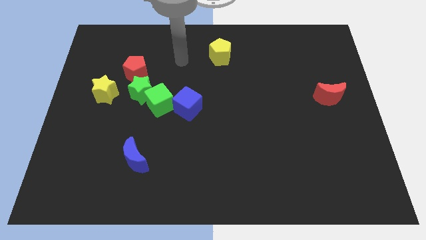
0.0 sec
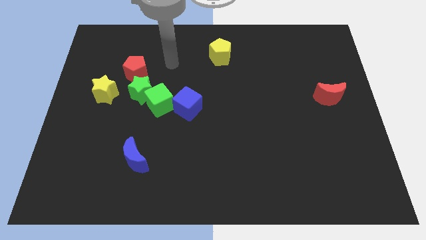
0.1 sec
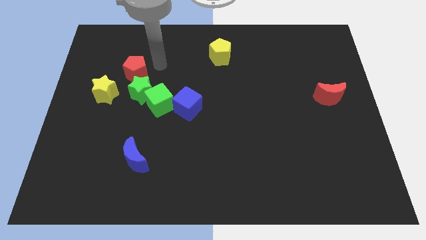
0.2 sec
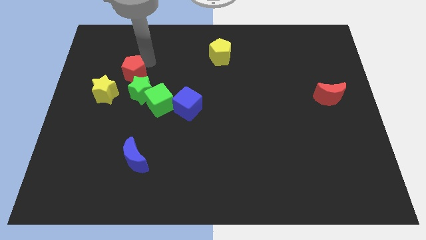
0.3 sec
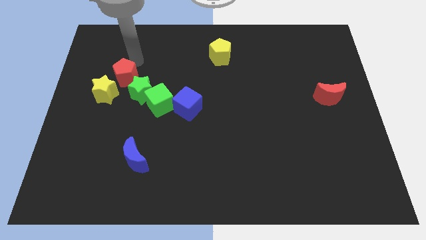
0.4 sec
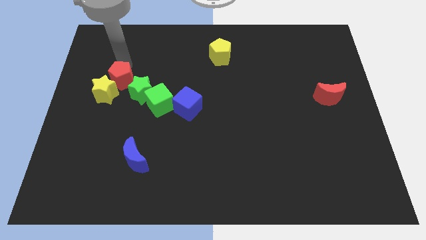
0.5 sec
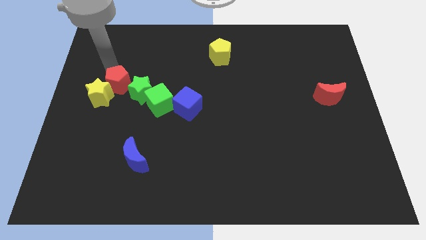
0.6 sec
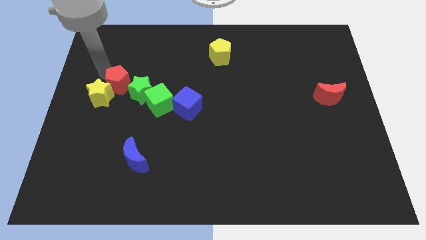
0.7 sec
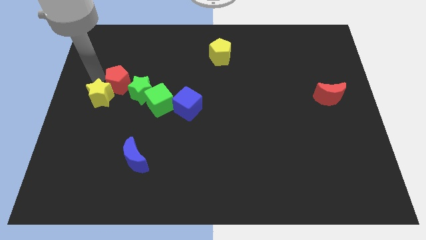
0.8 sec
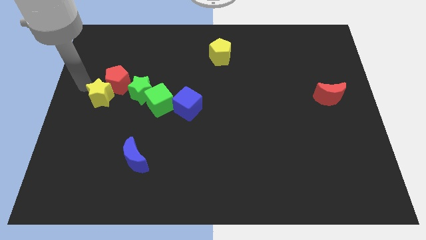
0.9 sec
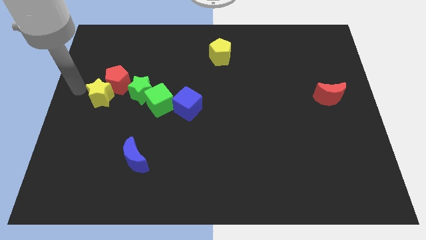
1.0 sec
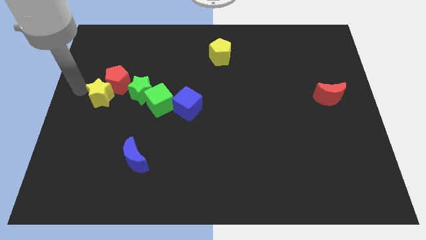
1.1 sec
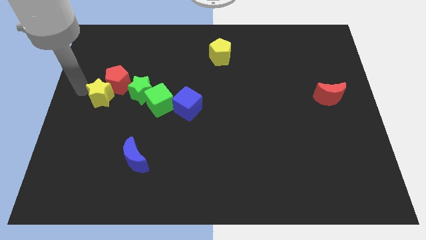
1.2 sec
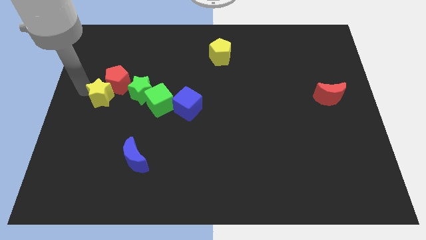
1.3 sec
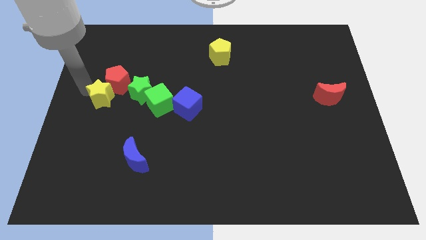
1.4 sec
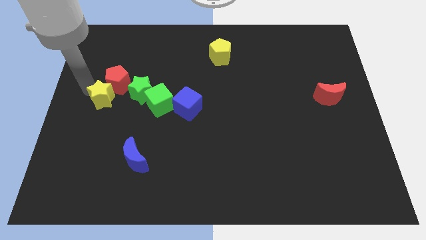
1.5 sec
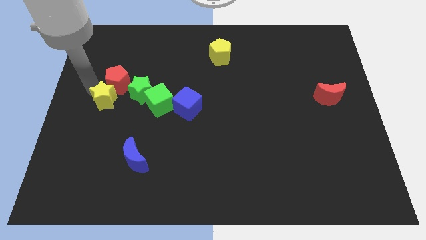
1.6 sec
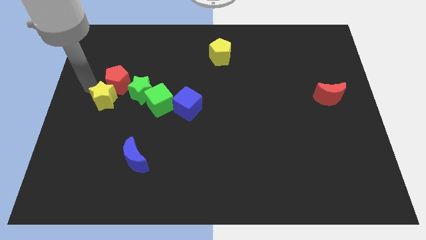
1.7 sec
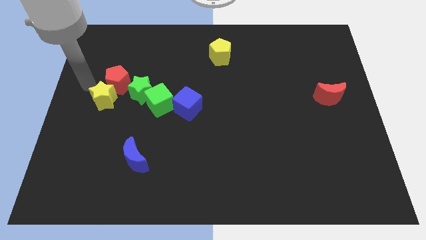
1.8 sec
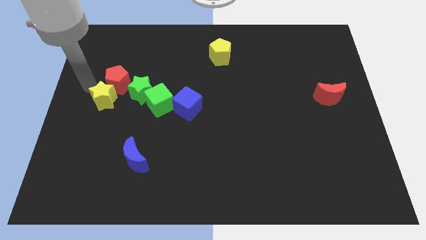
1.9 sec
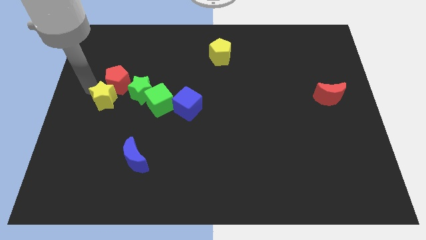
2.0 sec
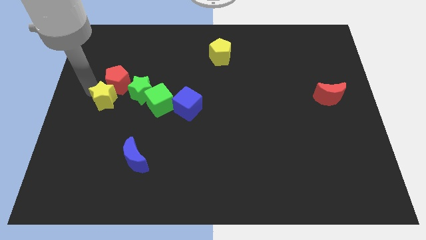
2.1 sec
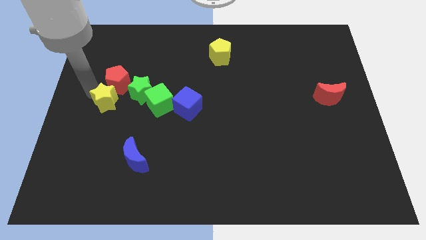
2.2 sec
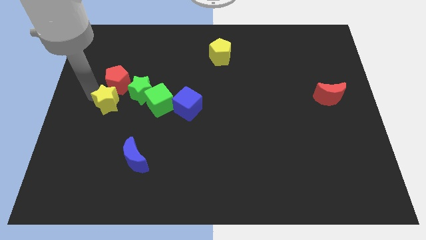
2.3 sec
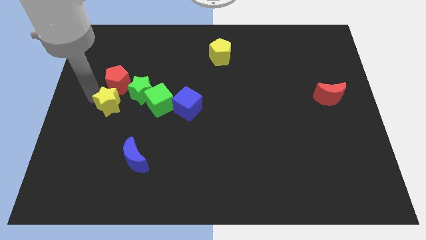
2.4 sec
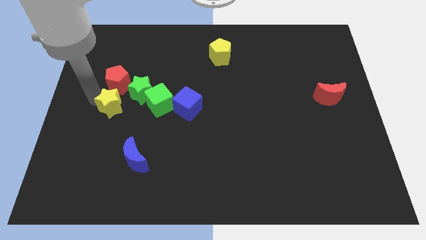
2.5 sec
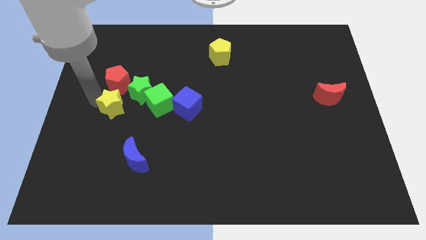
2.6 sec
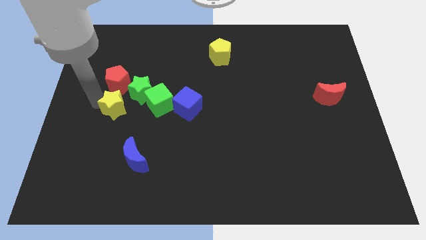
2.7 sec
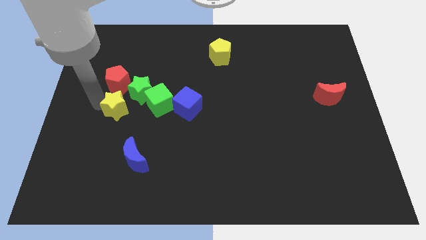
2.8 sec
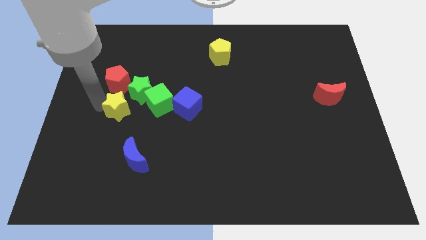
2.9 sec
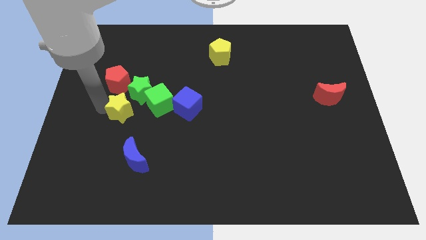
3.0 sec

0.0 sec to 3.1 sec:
push the yellow star downwards and right diagonally somewhat

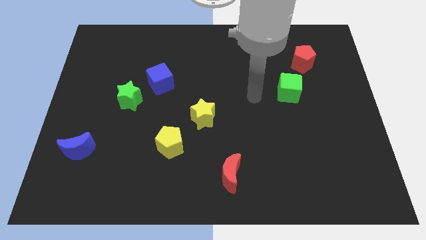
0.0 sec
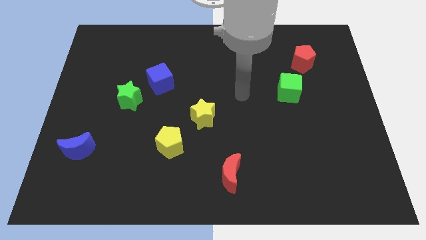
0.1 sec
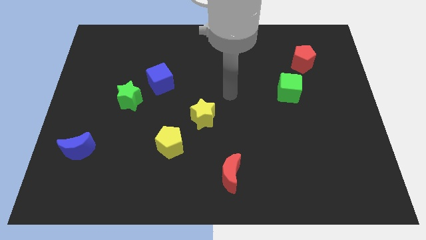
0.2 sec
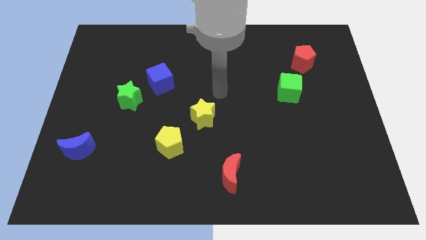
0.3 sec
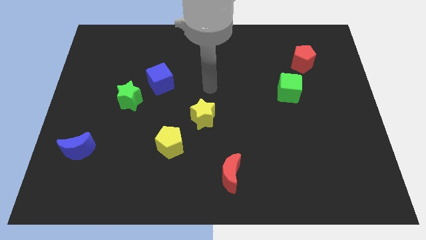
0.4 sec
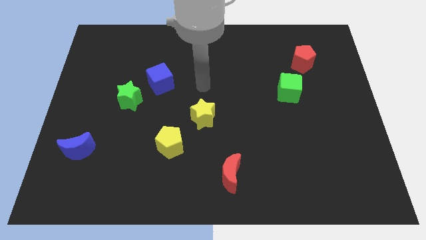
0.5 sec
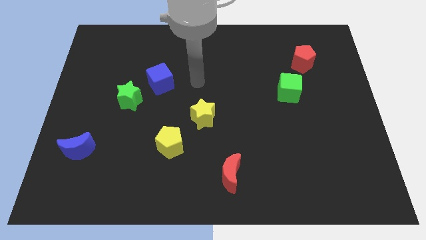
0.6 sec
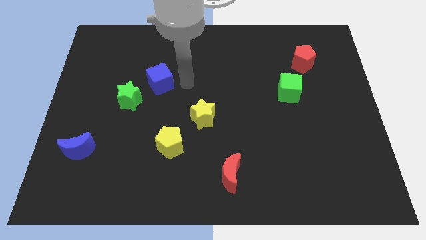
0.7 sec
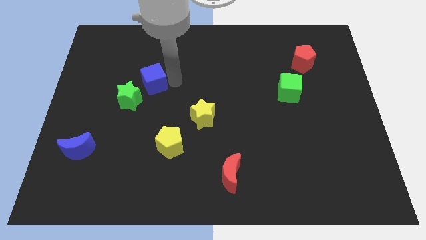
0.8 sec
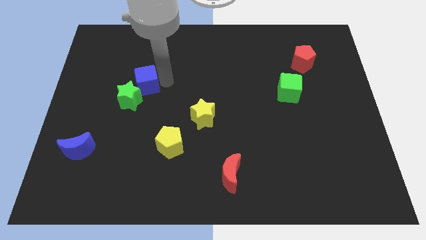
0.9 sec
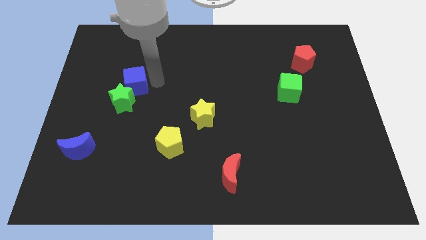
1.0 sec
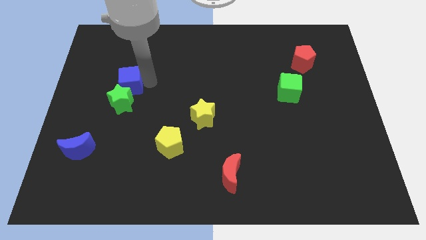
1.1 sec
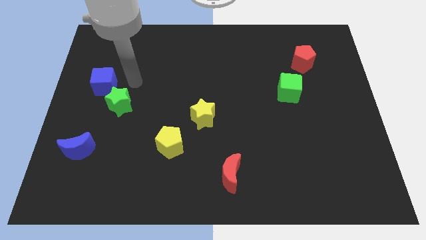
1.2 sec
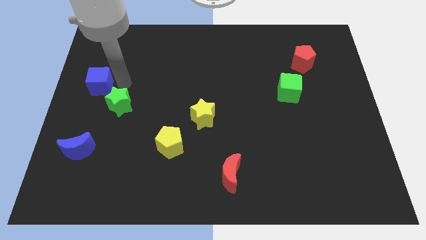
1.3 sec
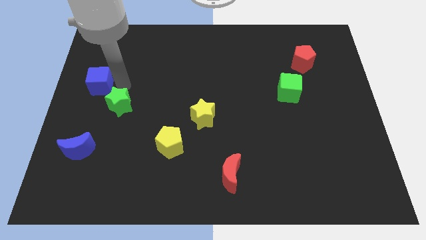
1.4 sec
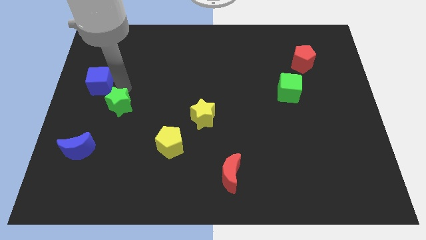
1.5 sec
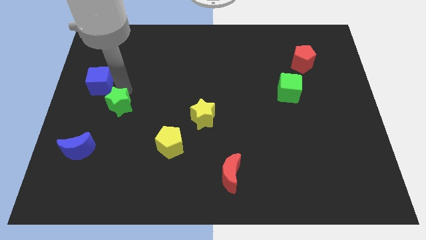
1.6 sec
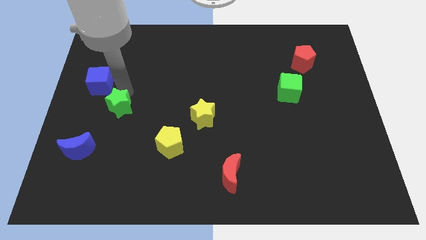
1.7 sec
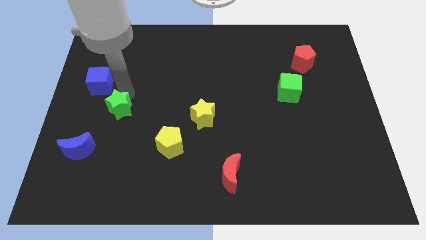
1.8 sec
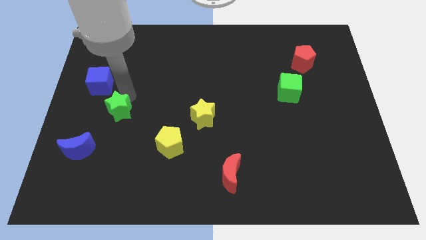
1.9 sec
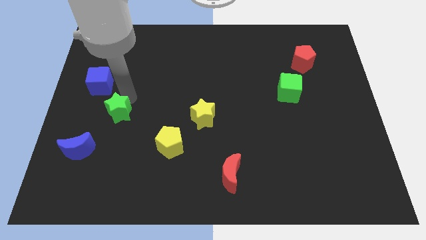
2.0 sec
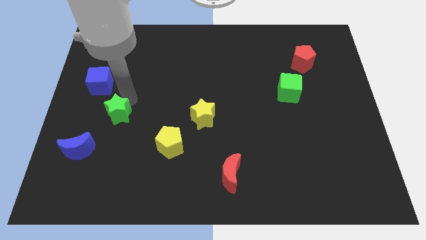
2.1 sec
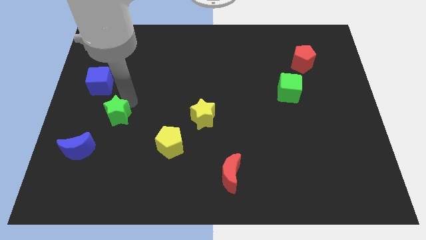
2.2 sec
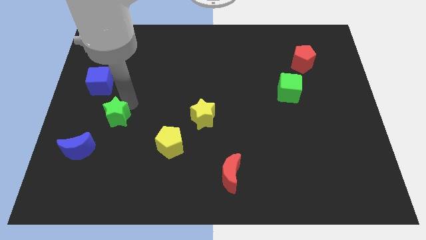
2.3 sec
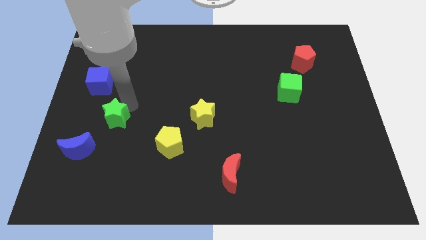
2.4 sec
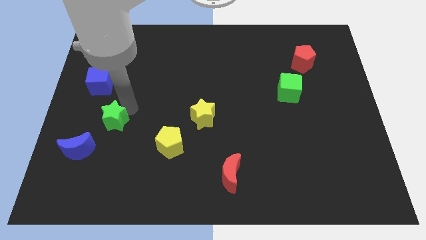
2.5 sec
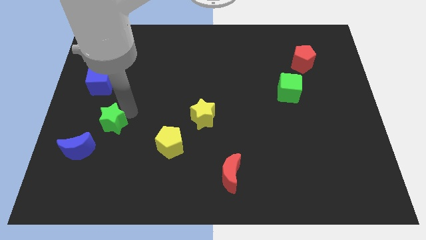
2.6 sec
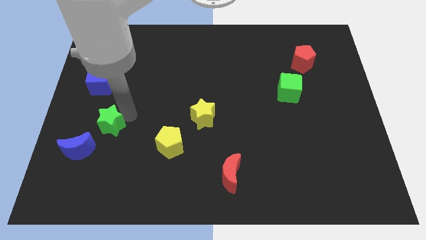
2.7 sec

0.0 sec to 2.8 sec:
push the green star downwards slightly

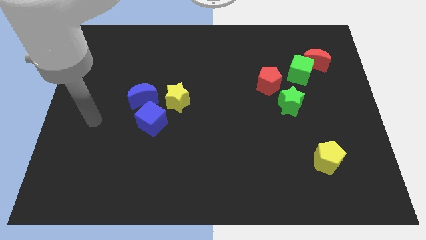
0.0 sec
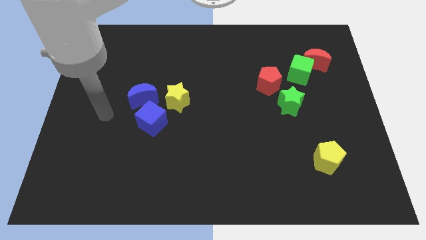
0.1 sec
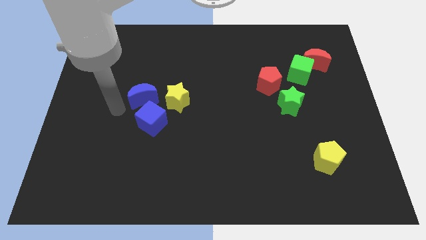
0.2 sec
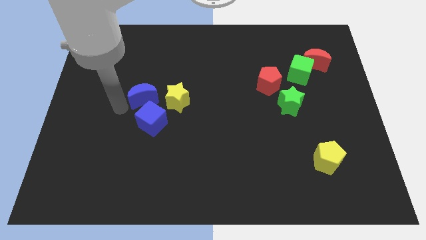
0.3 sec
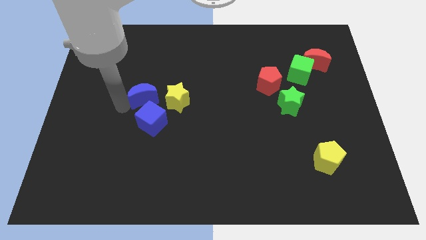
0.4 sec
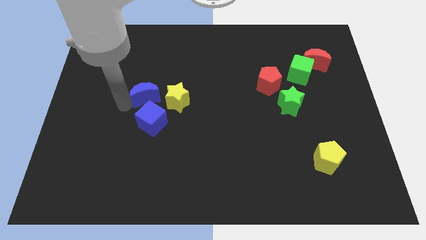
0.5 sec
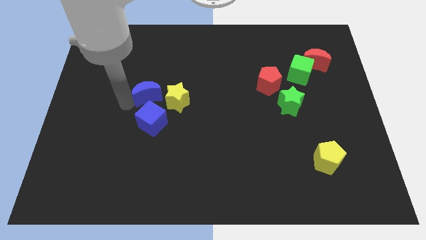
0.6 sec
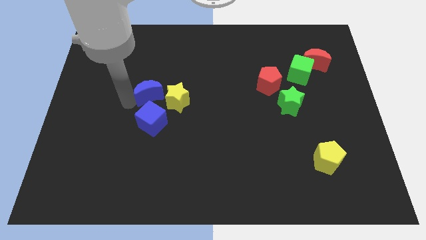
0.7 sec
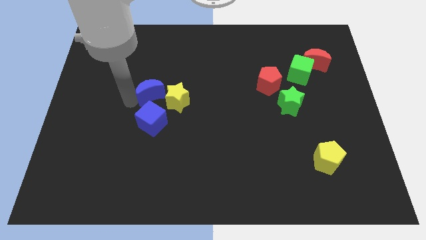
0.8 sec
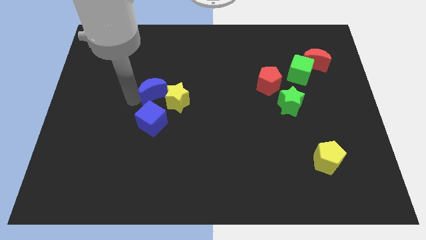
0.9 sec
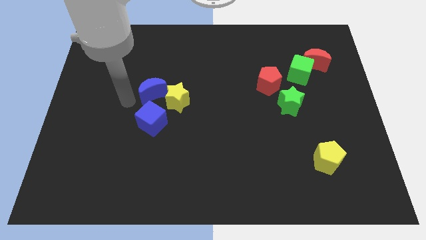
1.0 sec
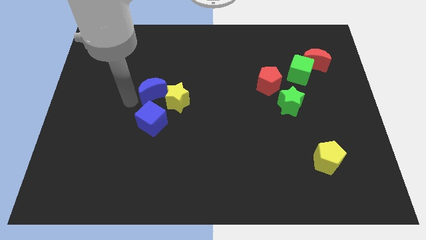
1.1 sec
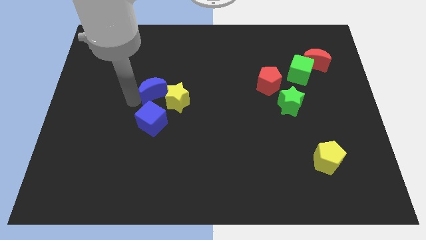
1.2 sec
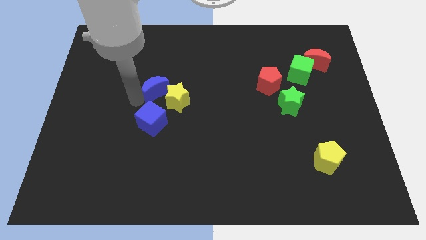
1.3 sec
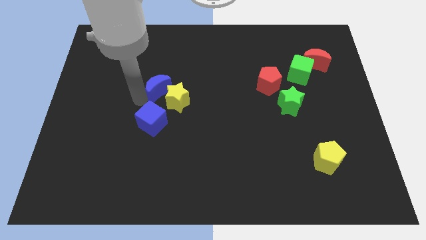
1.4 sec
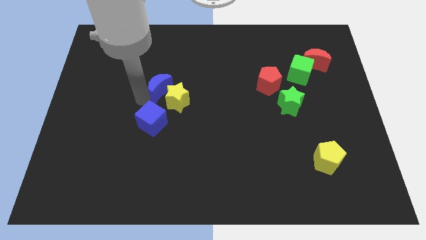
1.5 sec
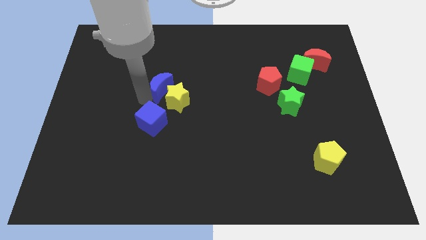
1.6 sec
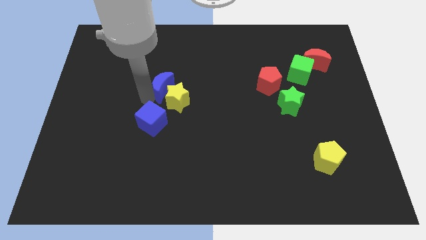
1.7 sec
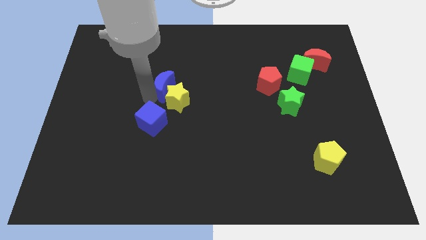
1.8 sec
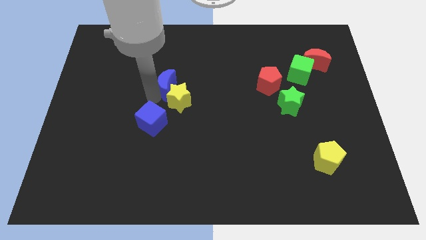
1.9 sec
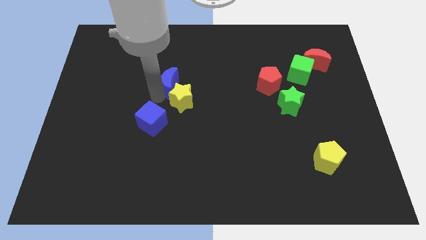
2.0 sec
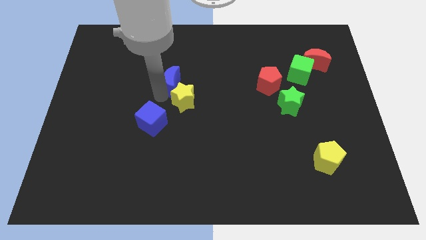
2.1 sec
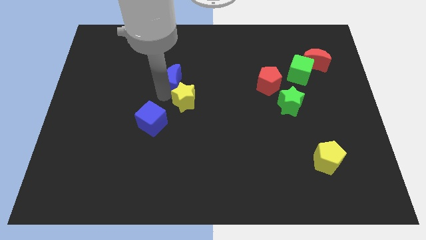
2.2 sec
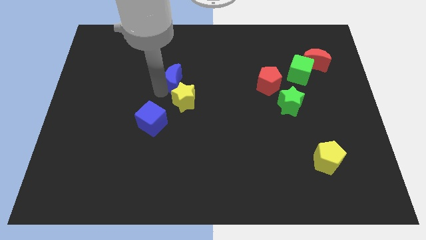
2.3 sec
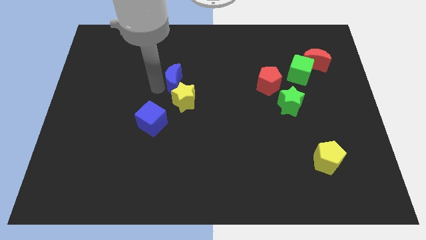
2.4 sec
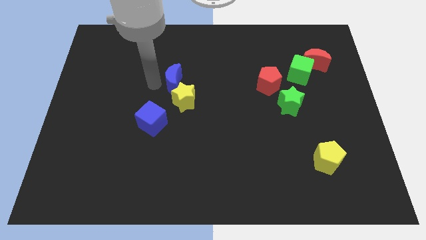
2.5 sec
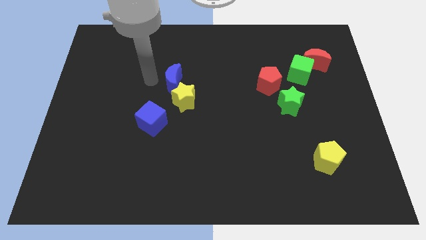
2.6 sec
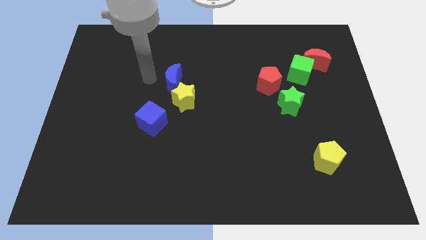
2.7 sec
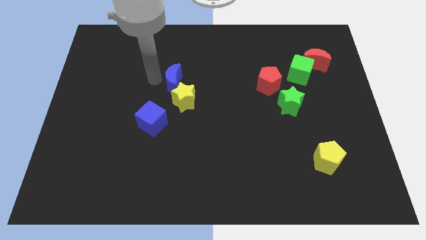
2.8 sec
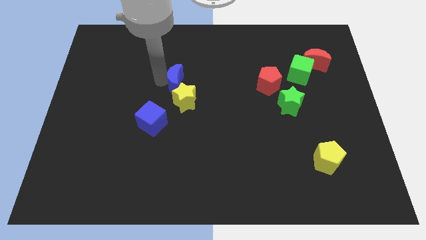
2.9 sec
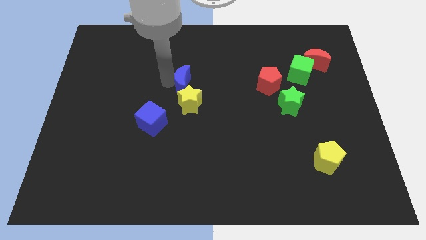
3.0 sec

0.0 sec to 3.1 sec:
push the blue moon to the right a little
